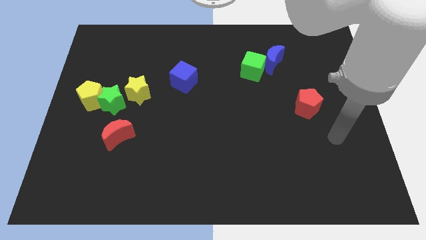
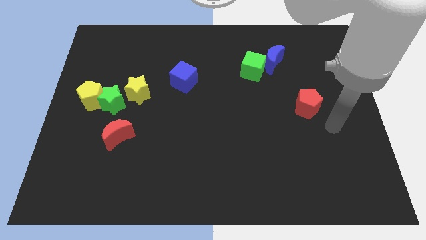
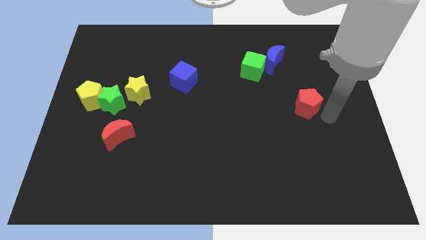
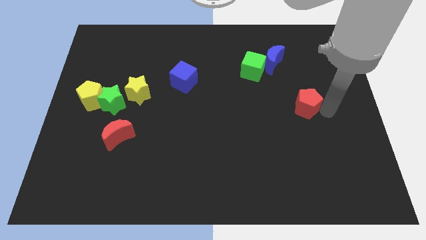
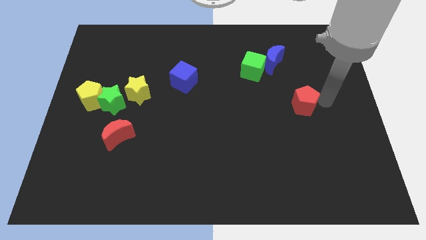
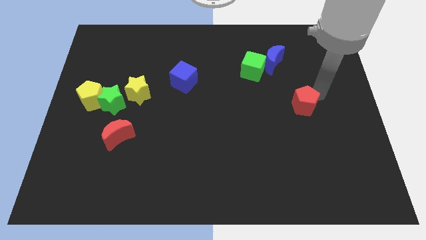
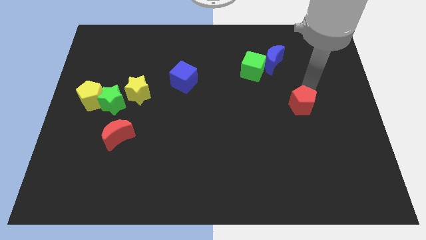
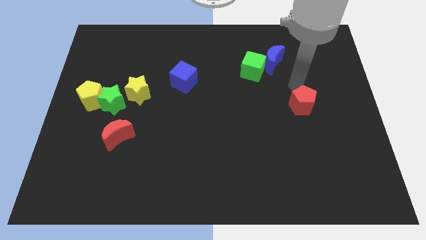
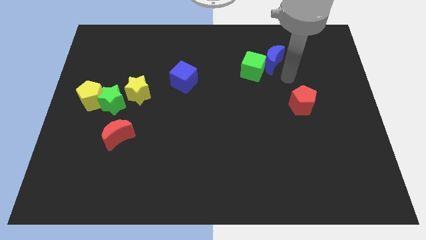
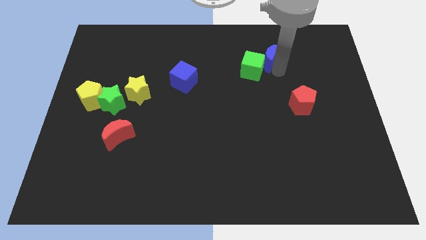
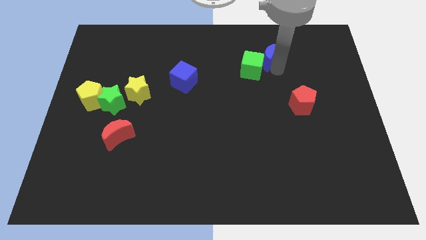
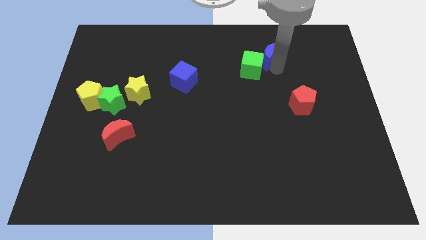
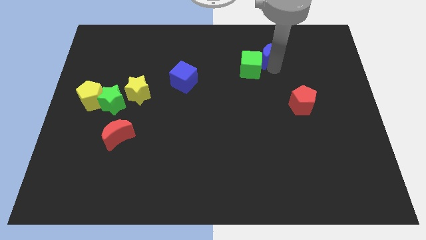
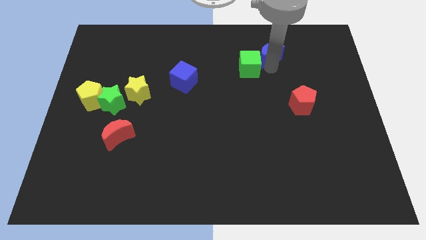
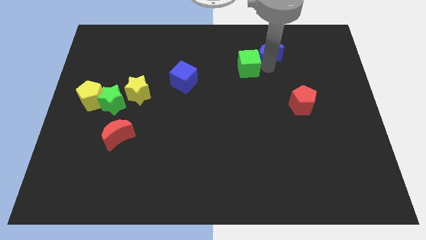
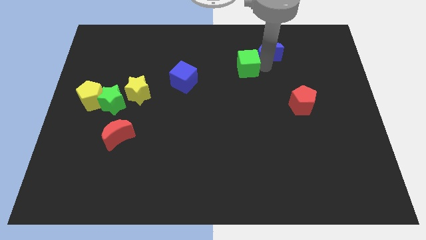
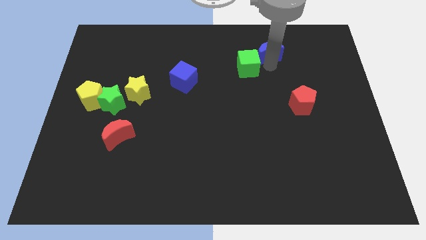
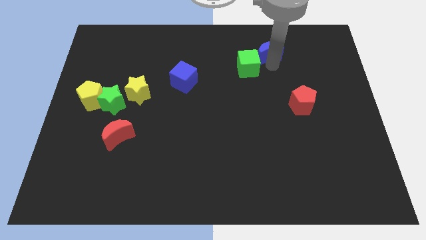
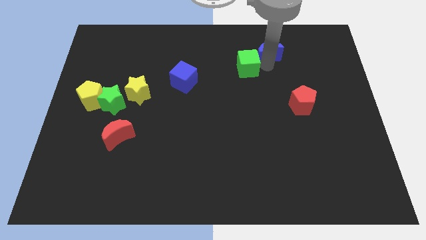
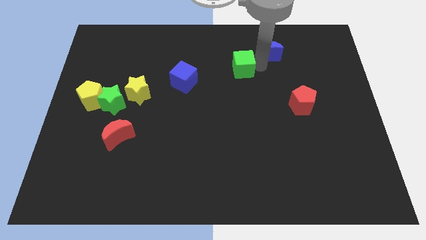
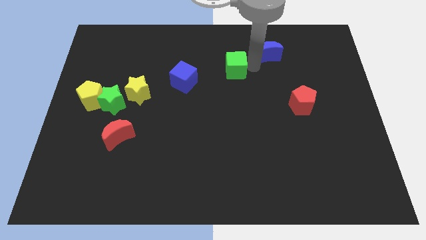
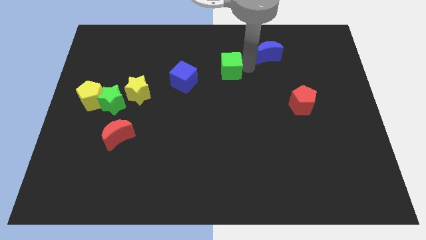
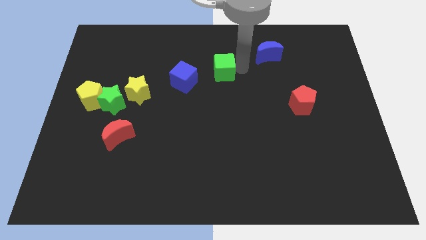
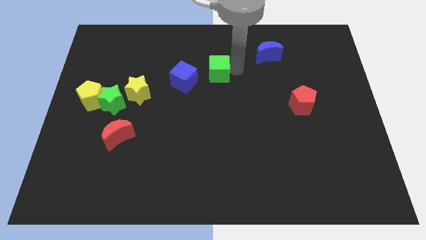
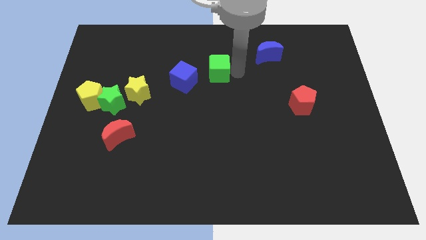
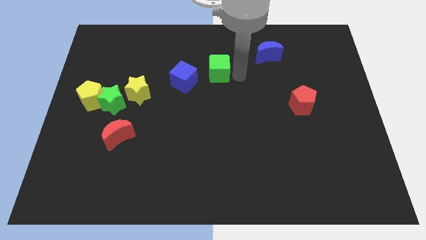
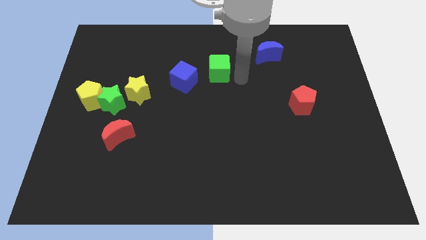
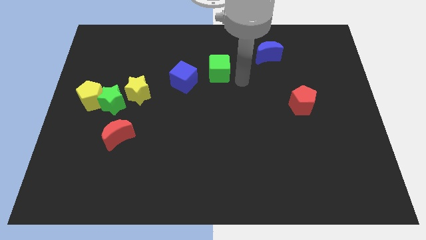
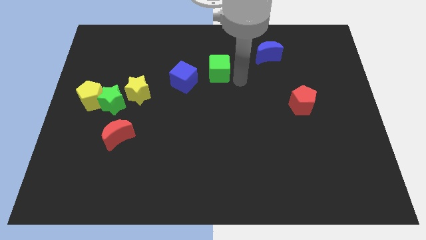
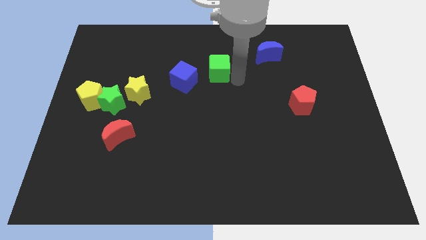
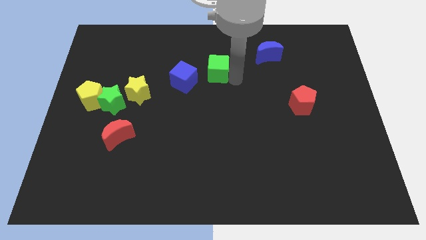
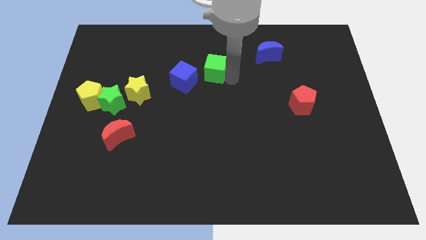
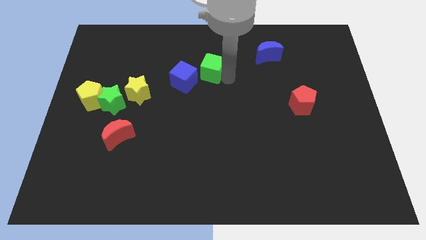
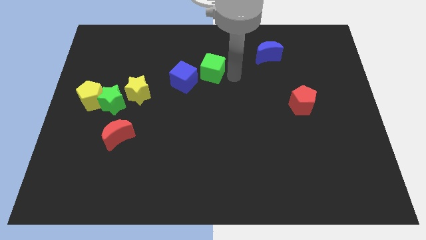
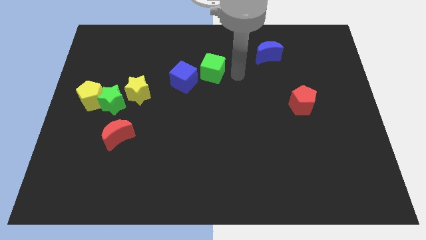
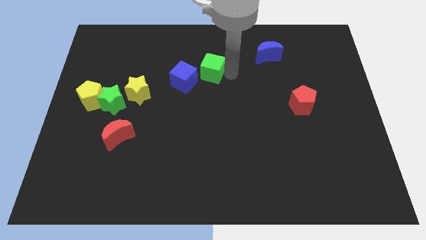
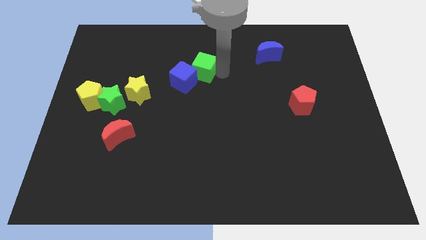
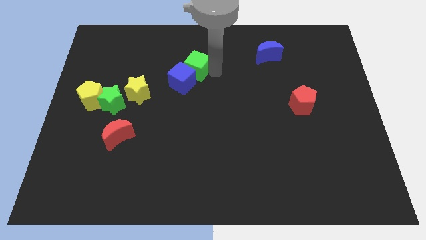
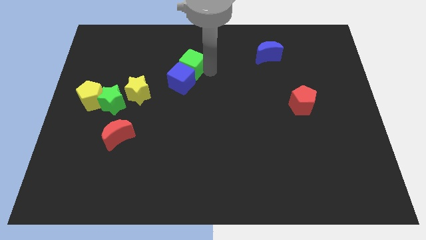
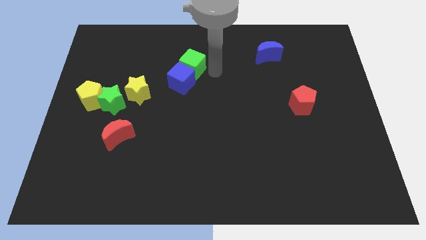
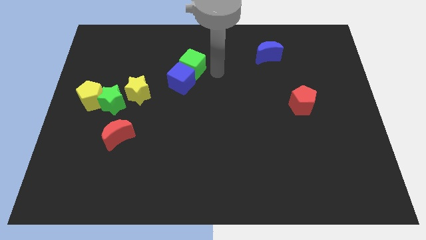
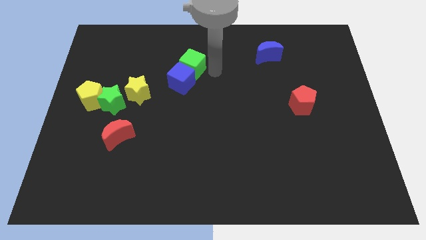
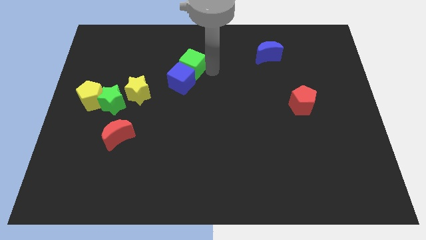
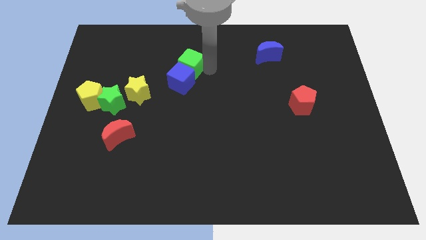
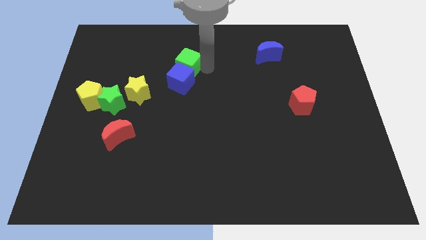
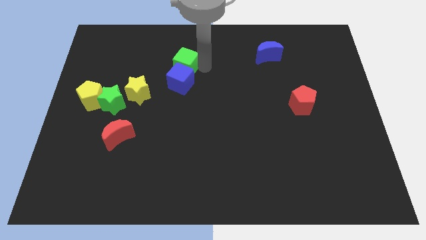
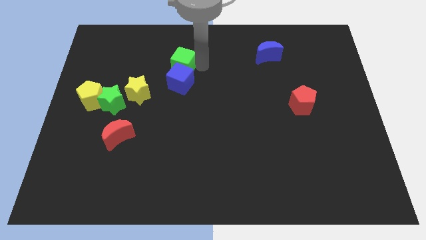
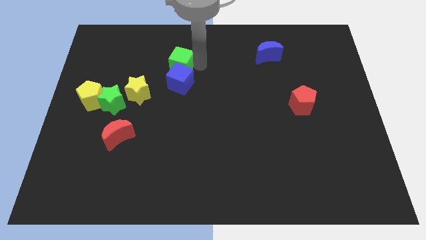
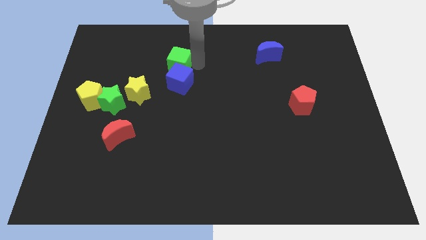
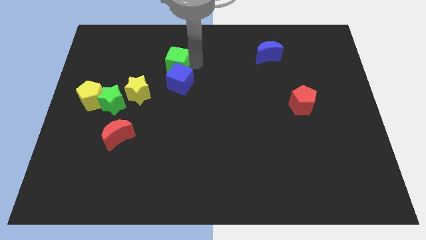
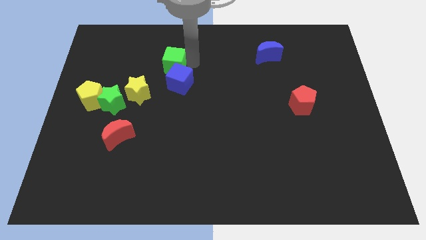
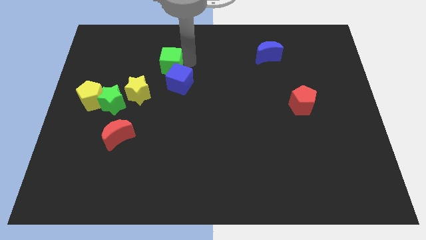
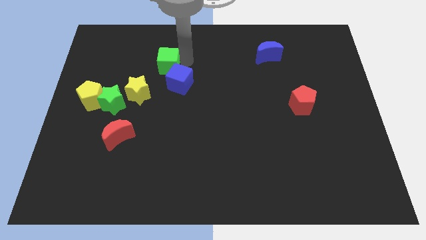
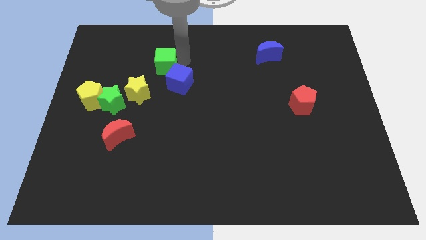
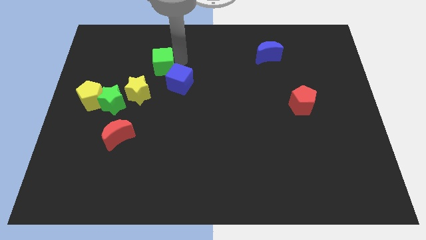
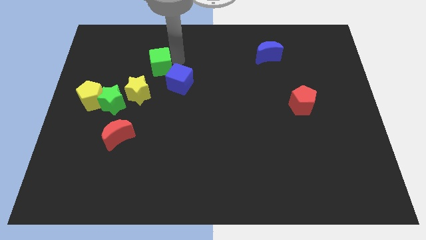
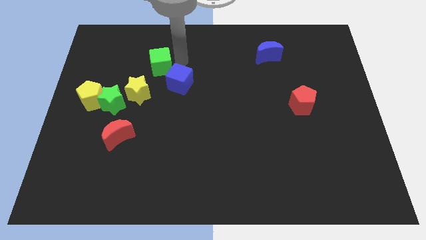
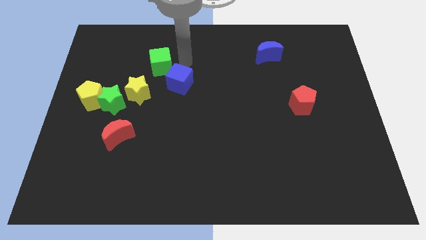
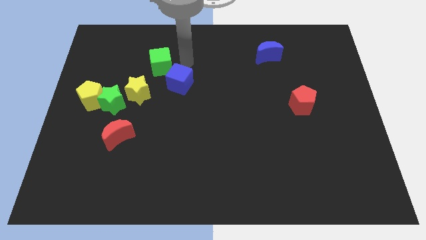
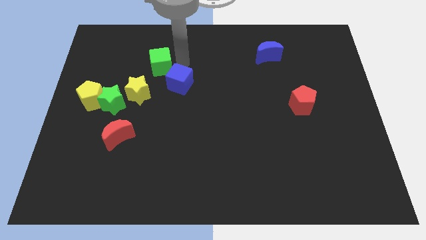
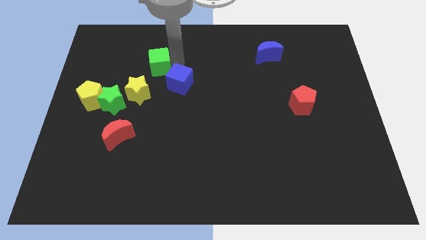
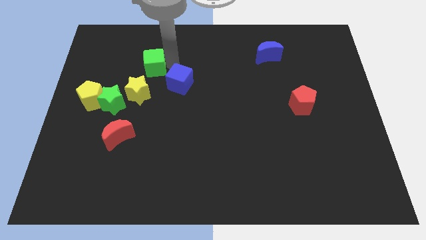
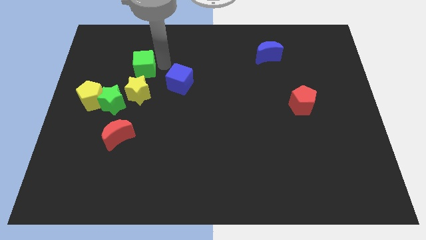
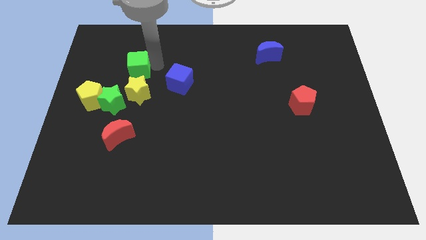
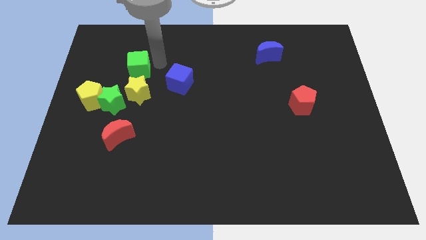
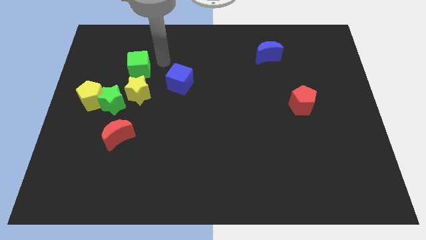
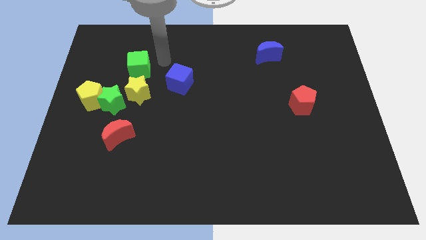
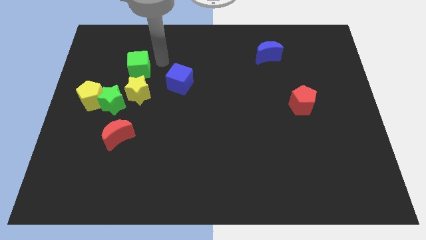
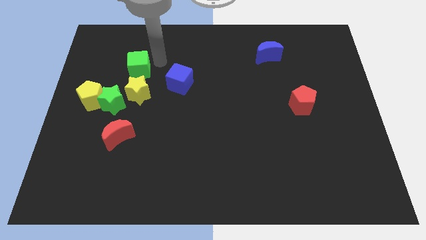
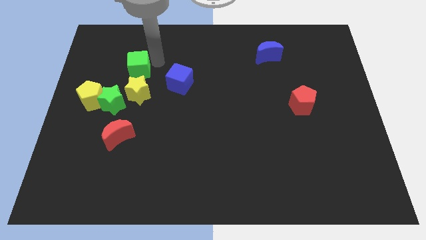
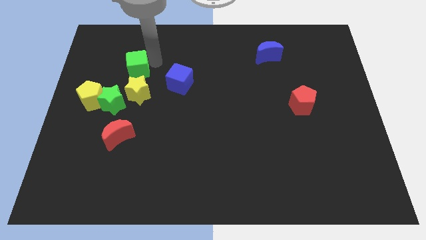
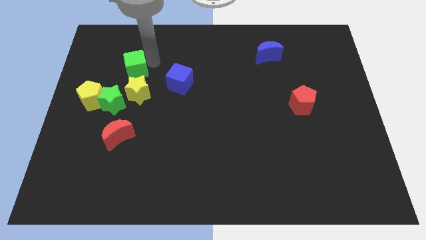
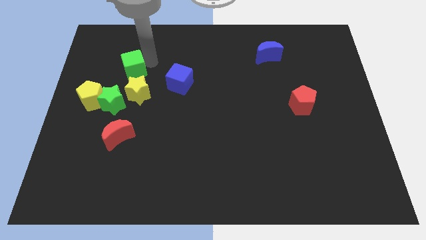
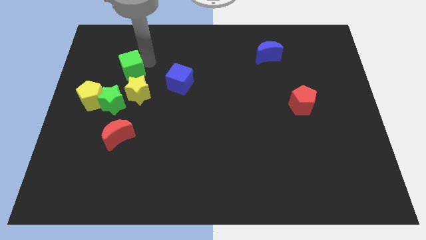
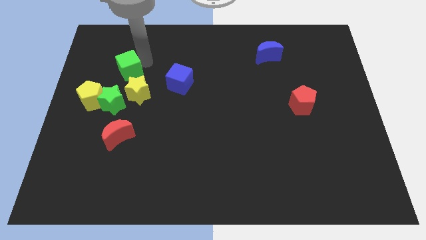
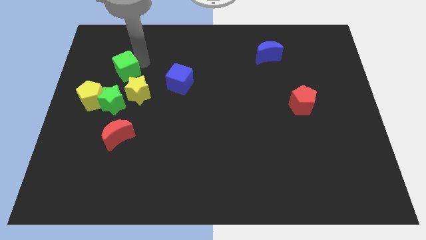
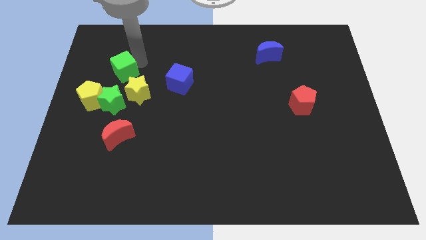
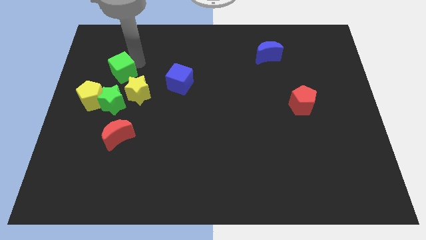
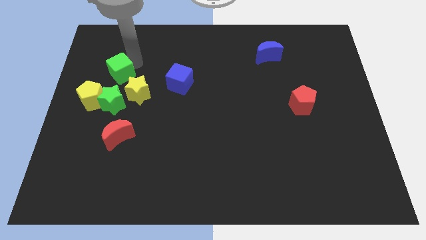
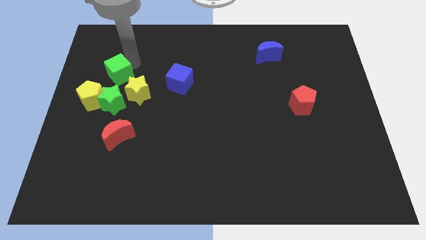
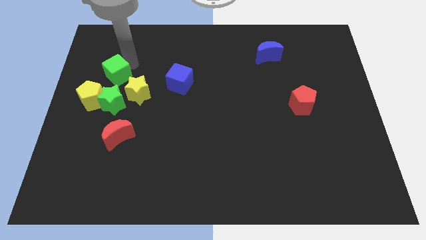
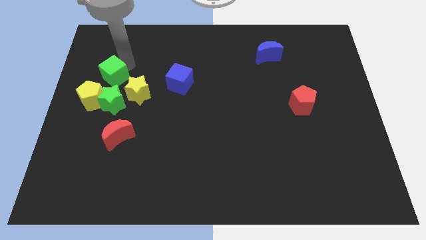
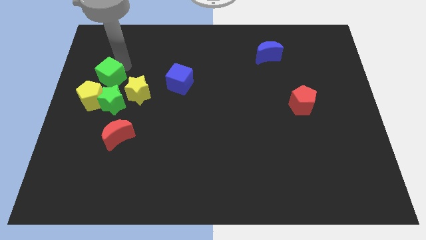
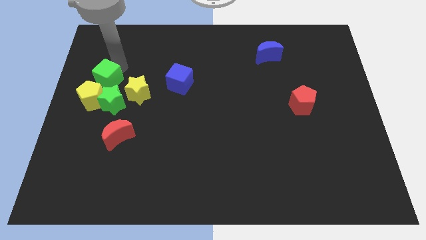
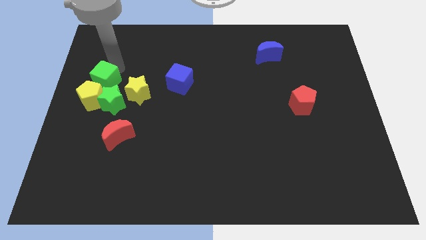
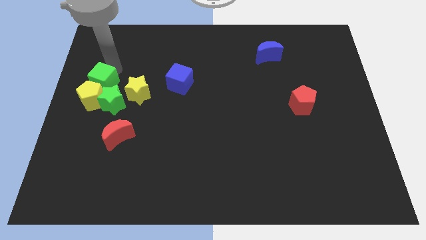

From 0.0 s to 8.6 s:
move the green cube close to the yellow pentagon
